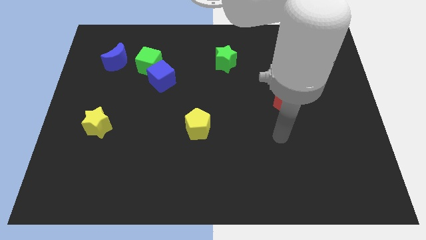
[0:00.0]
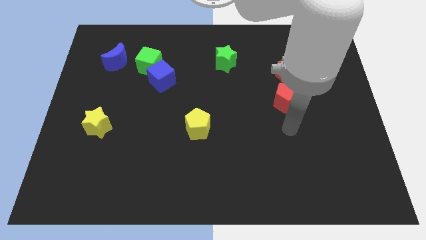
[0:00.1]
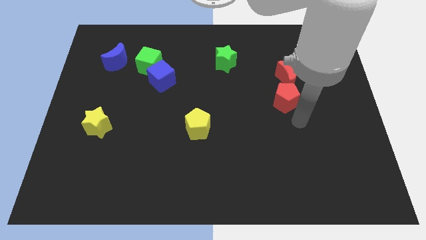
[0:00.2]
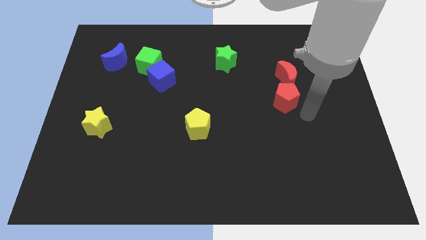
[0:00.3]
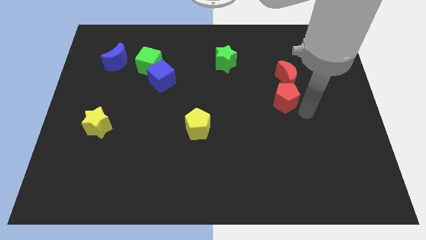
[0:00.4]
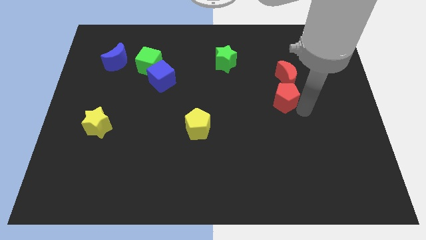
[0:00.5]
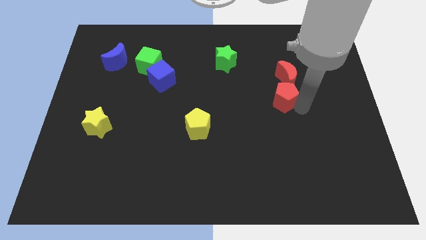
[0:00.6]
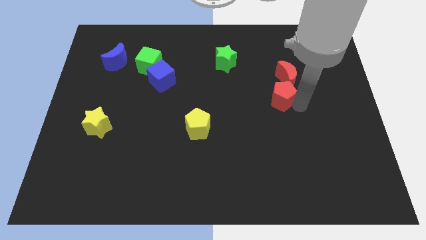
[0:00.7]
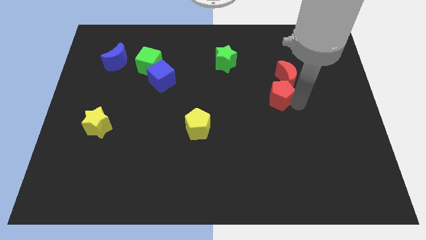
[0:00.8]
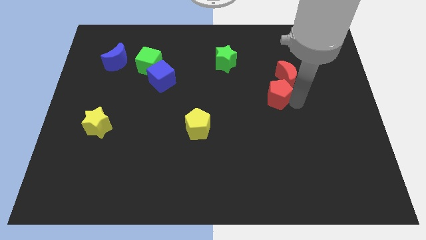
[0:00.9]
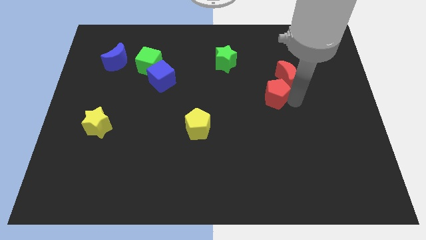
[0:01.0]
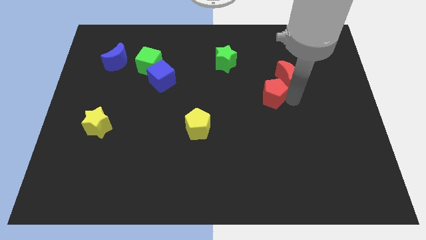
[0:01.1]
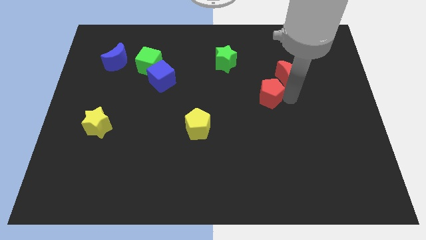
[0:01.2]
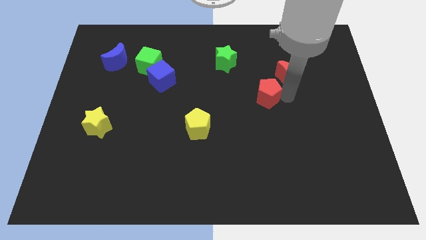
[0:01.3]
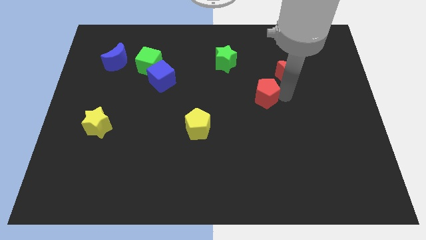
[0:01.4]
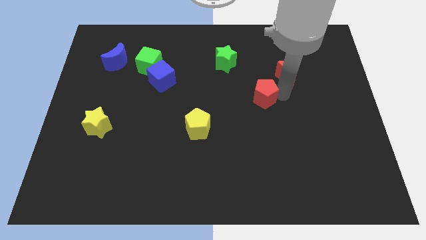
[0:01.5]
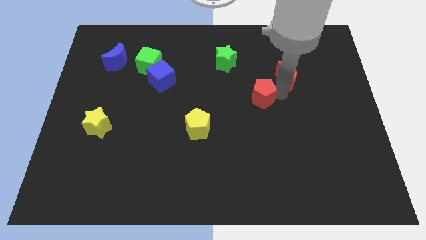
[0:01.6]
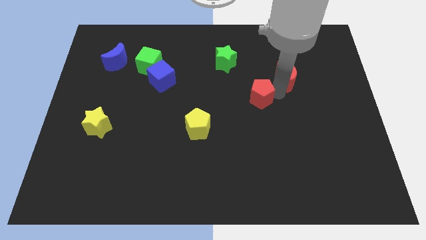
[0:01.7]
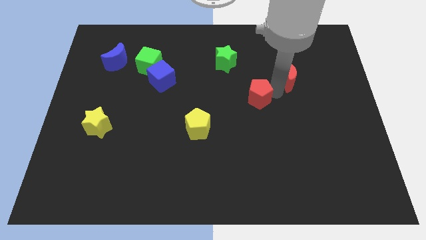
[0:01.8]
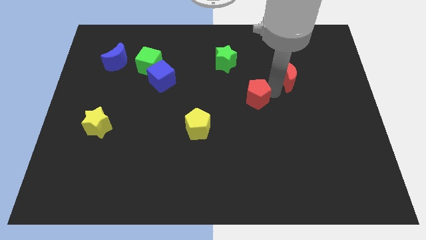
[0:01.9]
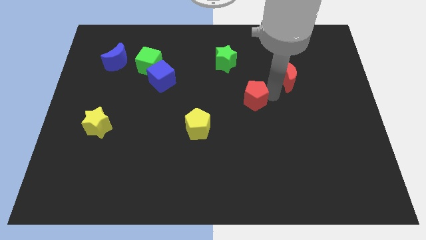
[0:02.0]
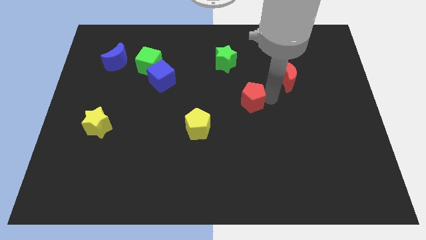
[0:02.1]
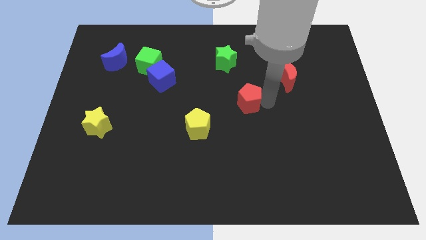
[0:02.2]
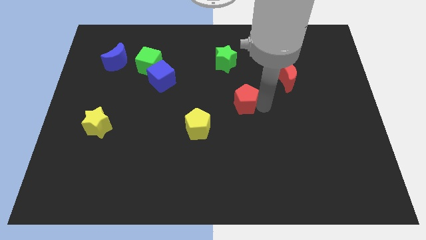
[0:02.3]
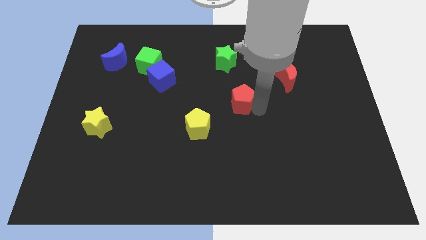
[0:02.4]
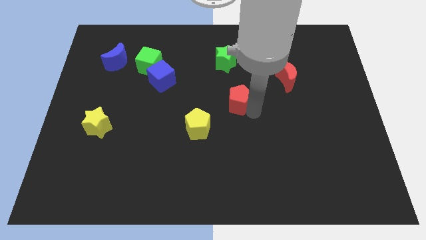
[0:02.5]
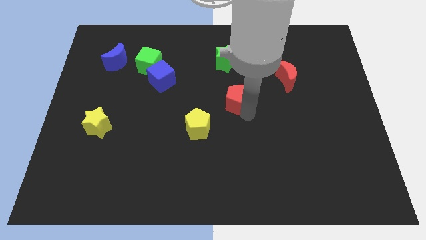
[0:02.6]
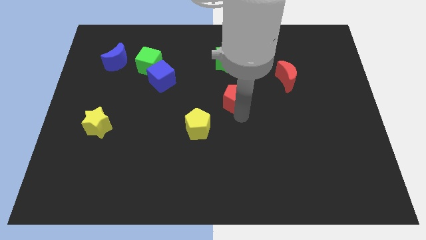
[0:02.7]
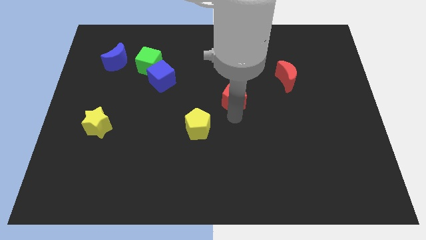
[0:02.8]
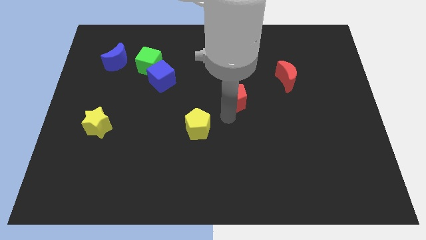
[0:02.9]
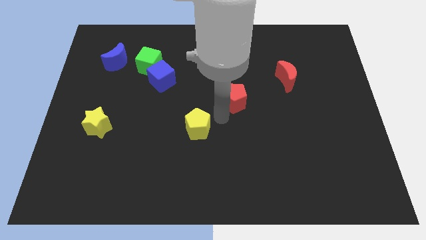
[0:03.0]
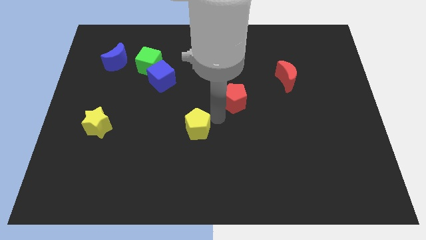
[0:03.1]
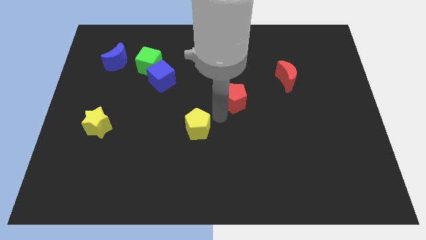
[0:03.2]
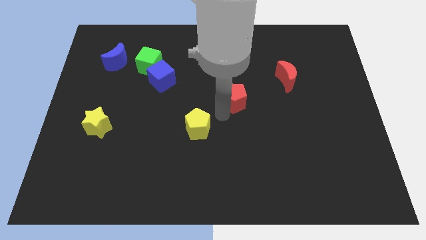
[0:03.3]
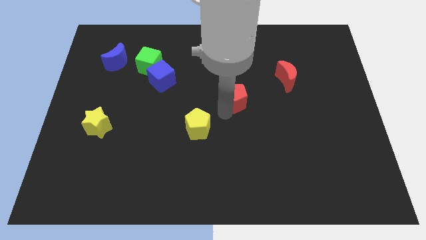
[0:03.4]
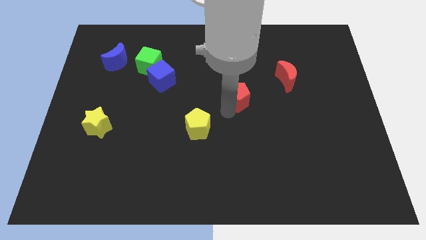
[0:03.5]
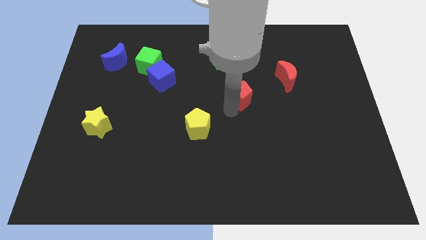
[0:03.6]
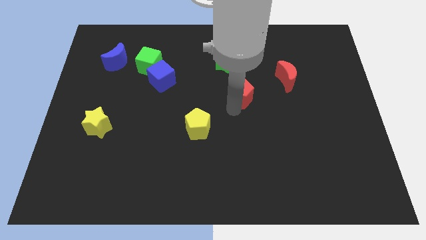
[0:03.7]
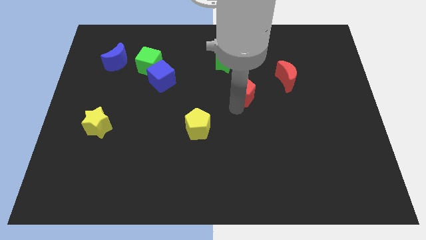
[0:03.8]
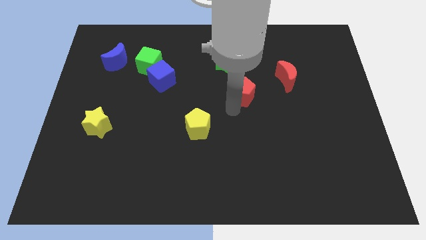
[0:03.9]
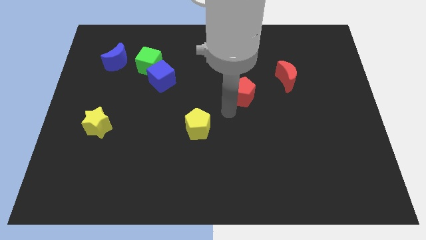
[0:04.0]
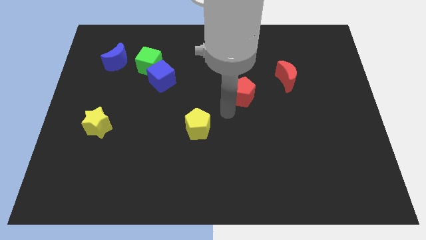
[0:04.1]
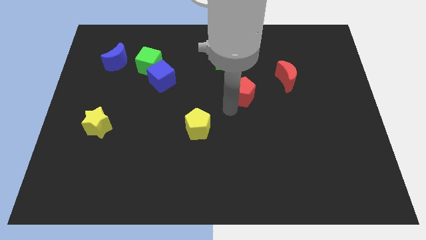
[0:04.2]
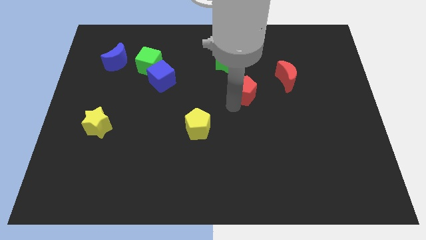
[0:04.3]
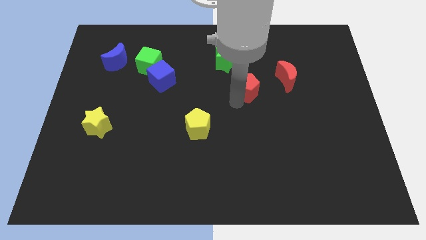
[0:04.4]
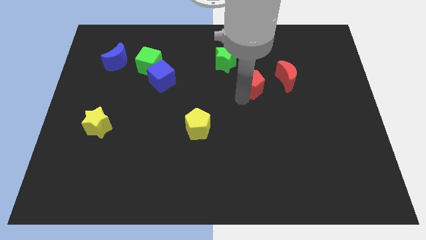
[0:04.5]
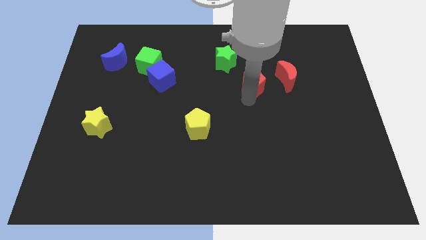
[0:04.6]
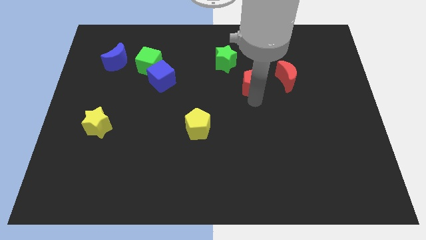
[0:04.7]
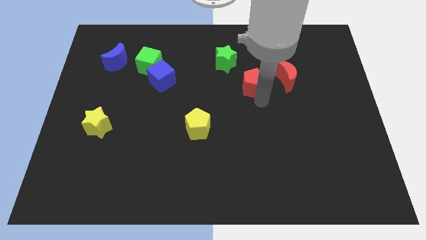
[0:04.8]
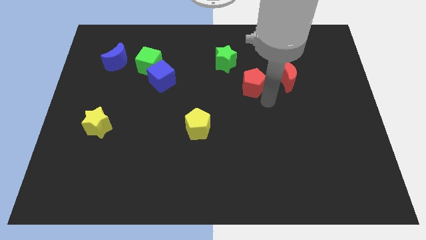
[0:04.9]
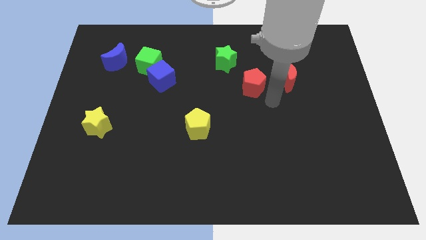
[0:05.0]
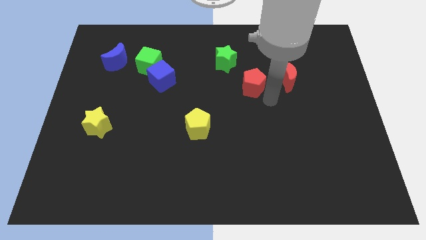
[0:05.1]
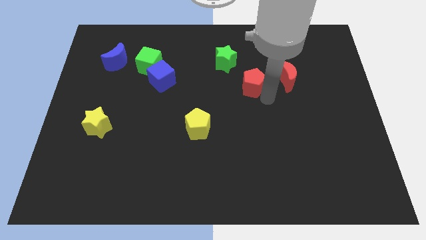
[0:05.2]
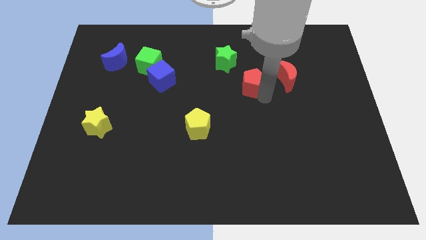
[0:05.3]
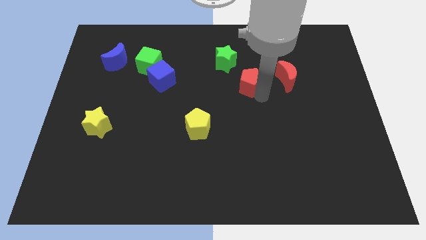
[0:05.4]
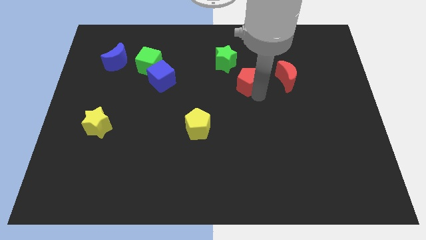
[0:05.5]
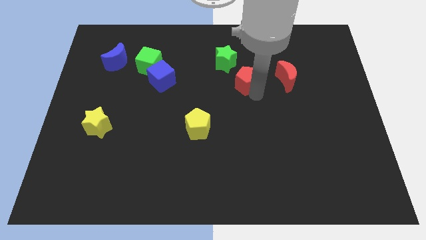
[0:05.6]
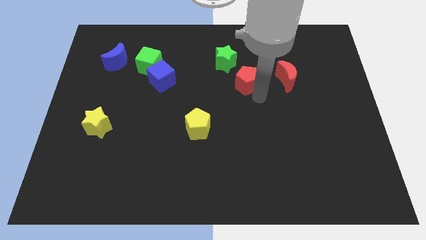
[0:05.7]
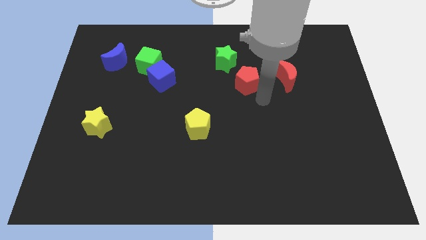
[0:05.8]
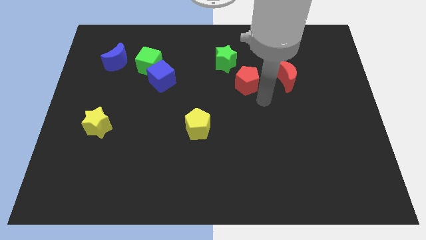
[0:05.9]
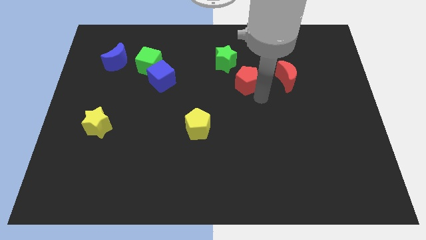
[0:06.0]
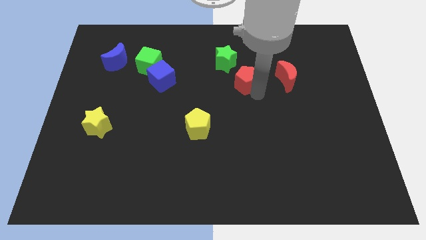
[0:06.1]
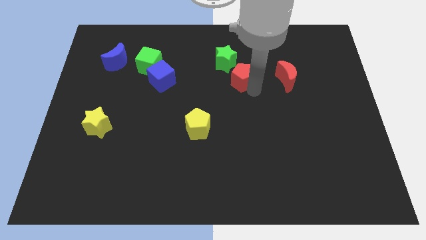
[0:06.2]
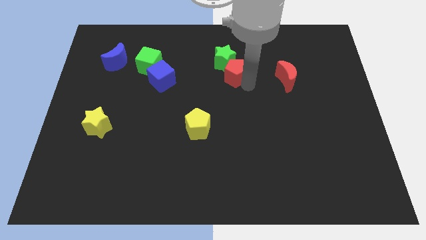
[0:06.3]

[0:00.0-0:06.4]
slide the red pentagon close to the green star
